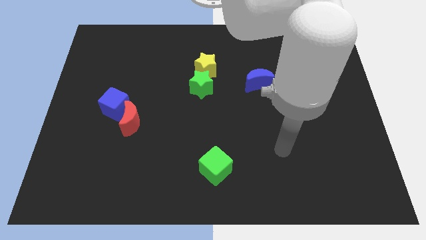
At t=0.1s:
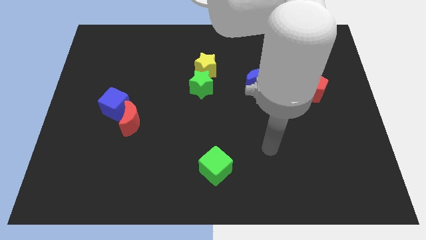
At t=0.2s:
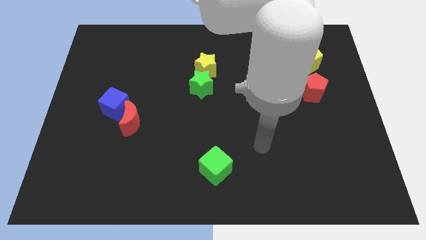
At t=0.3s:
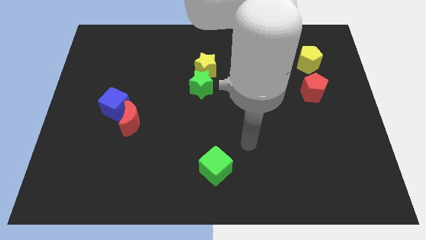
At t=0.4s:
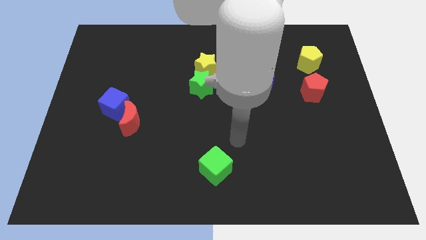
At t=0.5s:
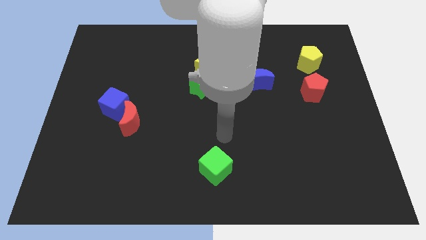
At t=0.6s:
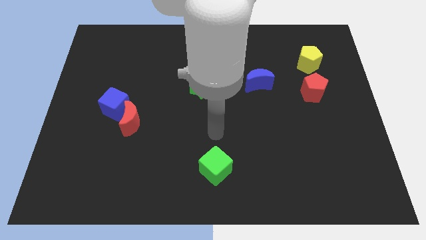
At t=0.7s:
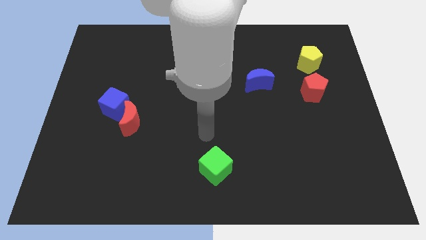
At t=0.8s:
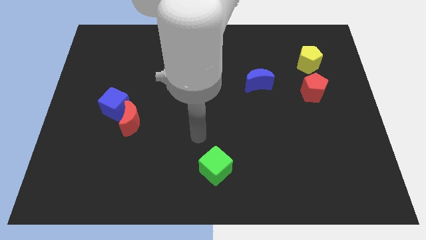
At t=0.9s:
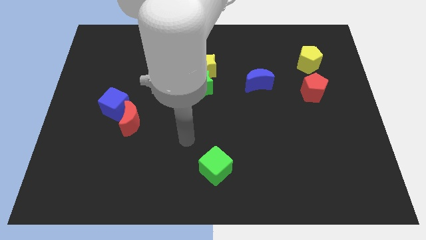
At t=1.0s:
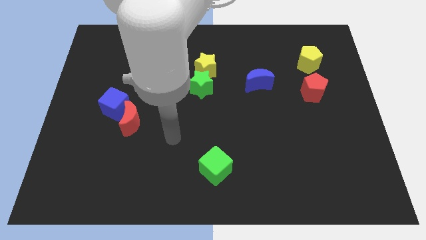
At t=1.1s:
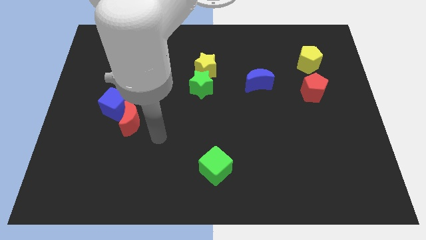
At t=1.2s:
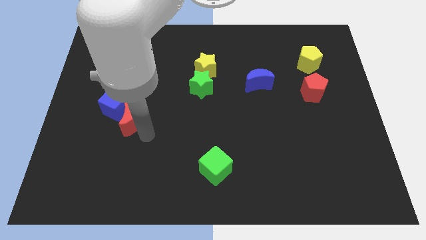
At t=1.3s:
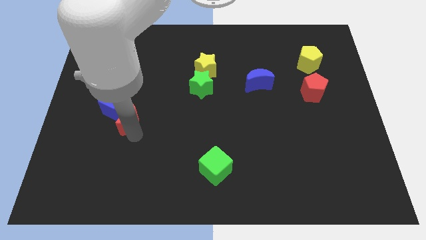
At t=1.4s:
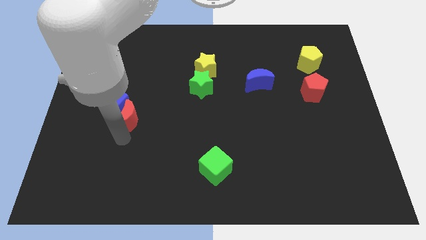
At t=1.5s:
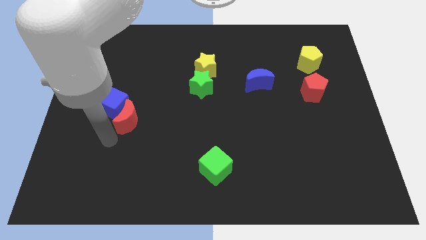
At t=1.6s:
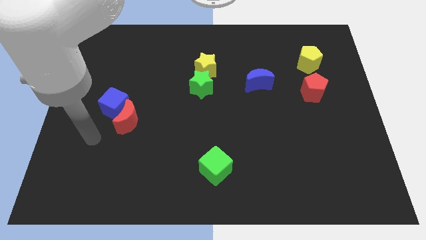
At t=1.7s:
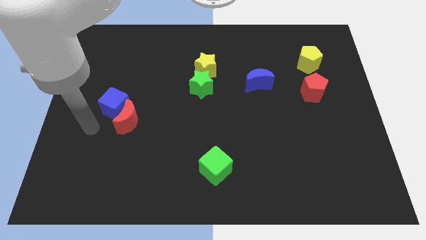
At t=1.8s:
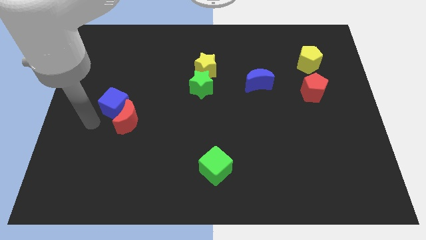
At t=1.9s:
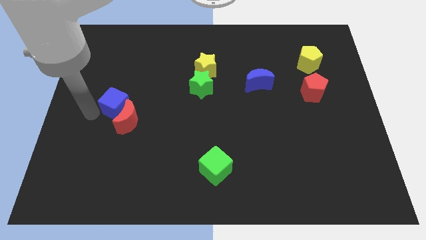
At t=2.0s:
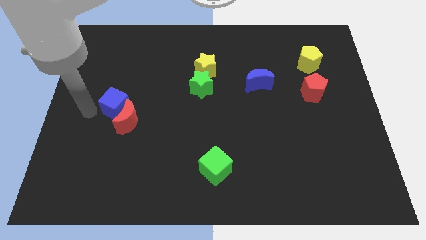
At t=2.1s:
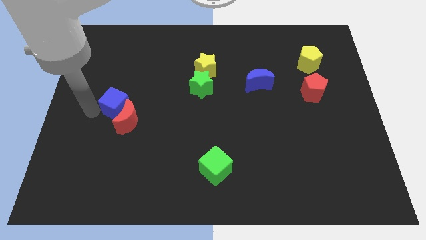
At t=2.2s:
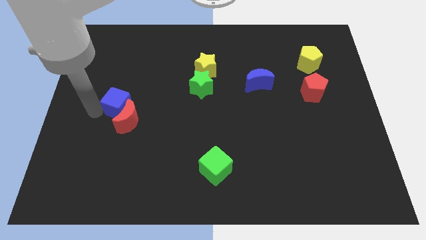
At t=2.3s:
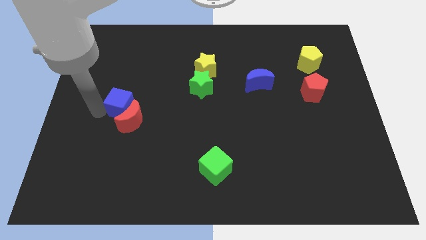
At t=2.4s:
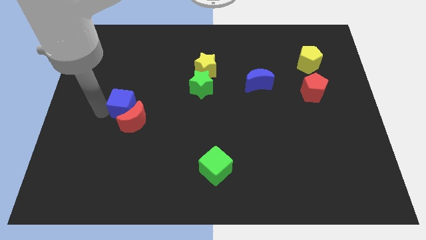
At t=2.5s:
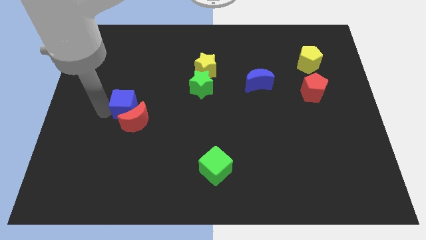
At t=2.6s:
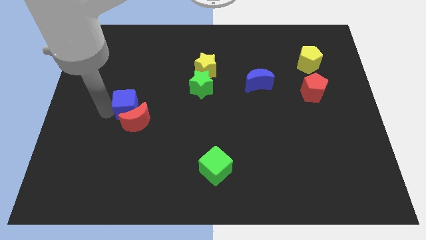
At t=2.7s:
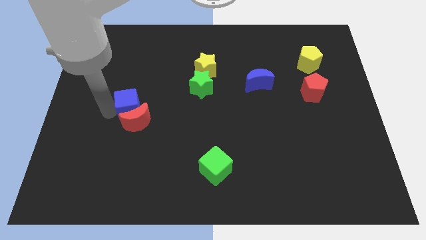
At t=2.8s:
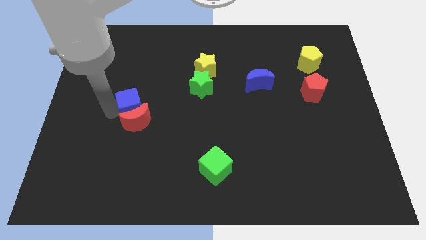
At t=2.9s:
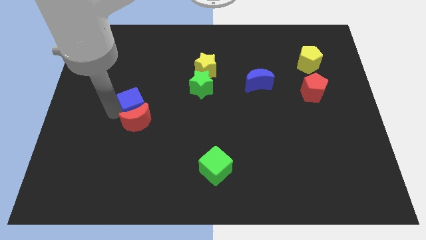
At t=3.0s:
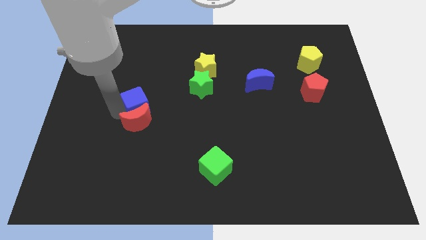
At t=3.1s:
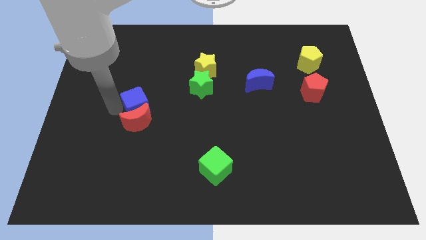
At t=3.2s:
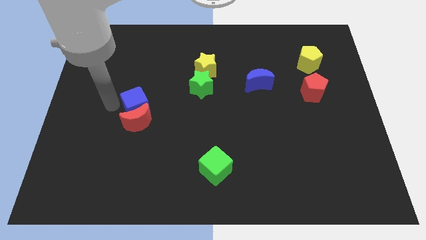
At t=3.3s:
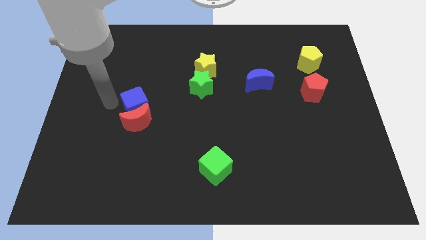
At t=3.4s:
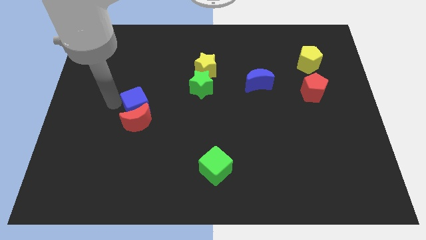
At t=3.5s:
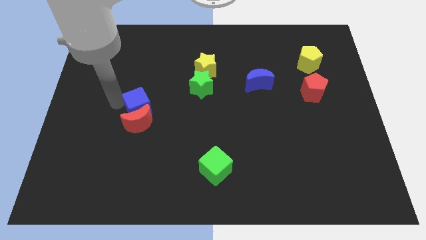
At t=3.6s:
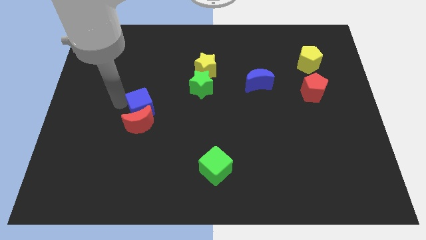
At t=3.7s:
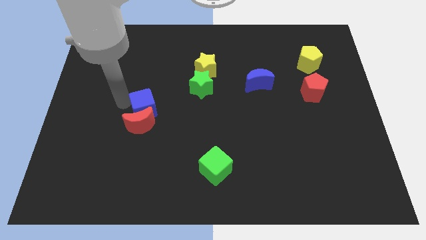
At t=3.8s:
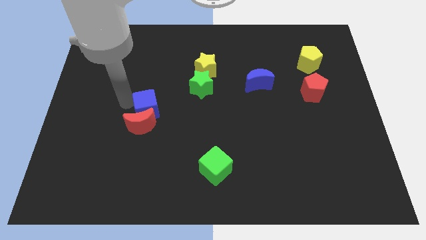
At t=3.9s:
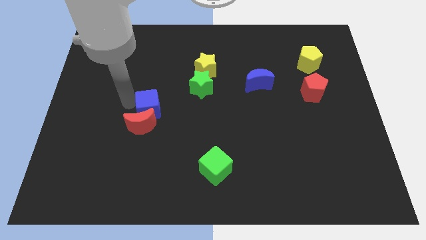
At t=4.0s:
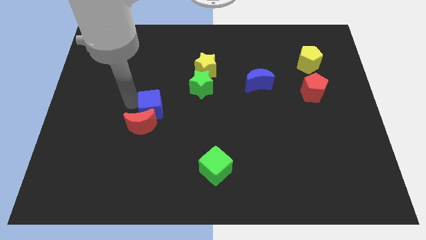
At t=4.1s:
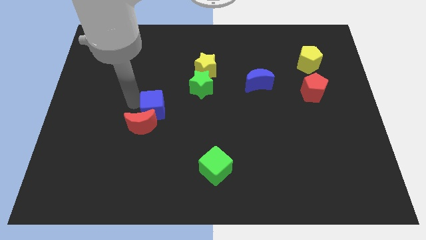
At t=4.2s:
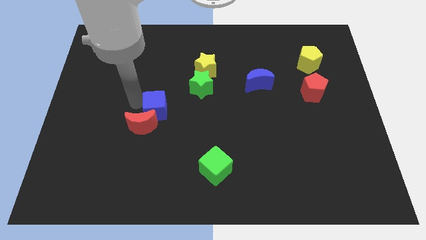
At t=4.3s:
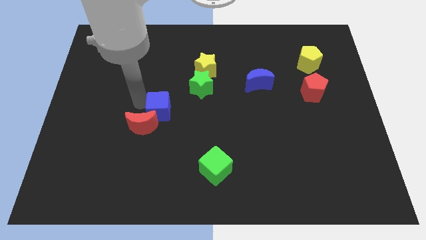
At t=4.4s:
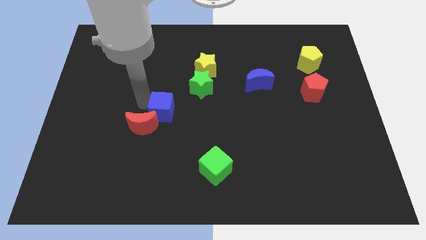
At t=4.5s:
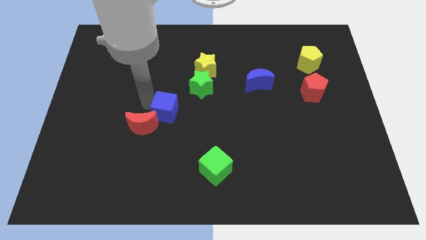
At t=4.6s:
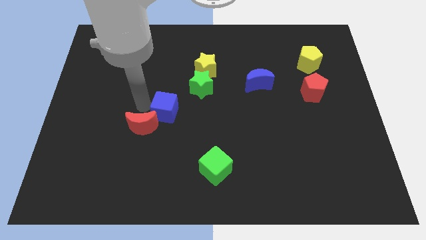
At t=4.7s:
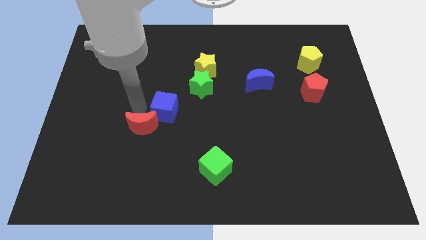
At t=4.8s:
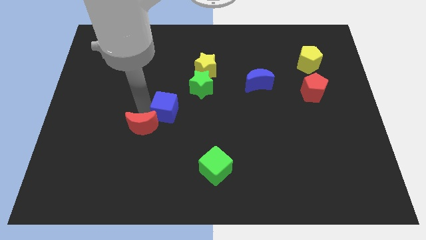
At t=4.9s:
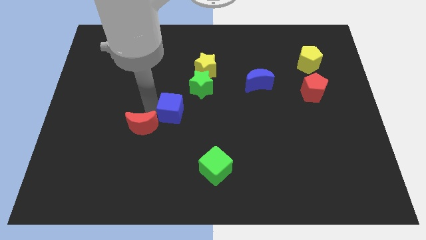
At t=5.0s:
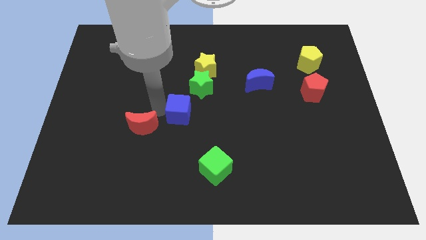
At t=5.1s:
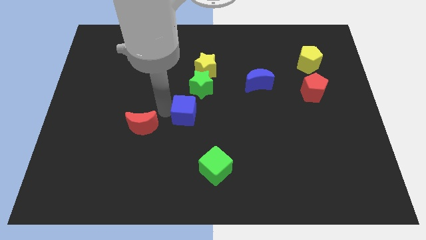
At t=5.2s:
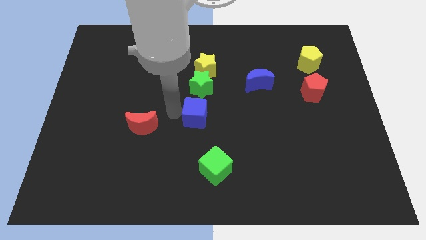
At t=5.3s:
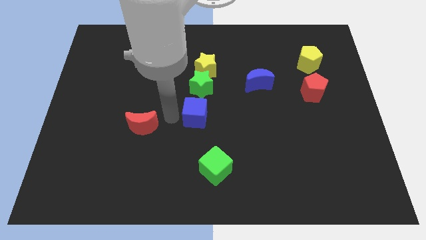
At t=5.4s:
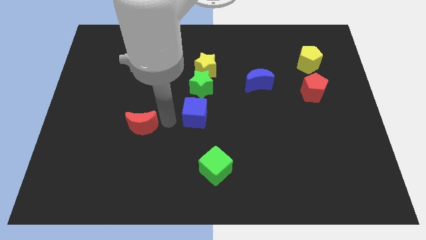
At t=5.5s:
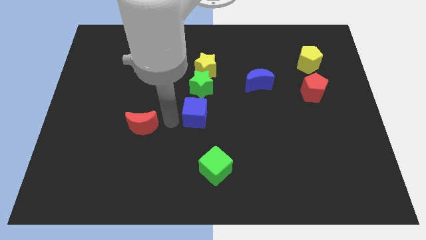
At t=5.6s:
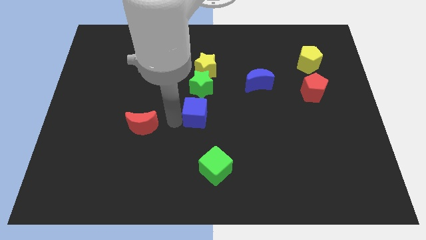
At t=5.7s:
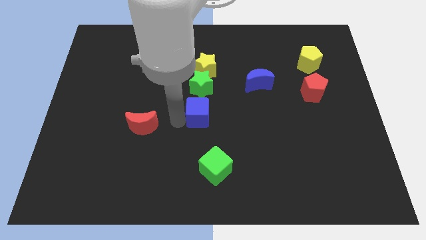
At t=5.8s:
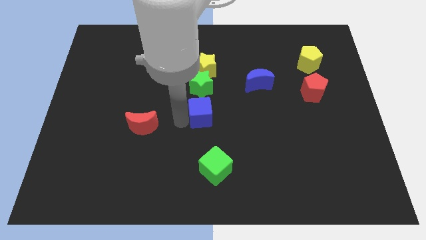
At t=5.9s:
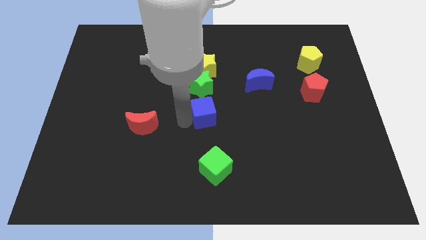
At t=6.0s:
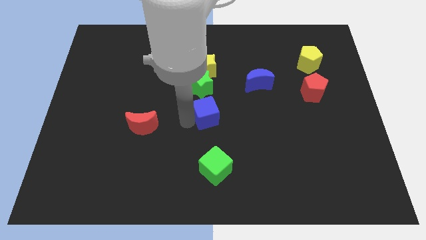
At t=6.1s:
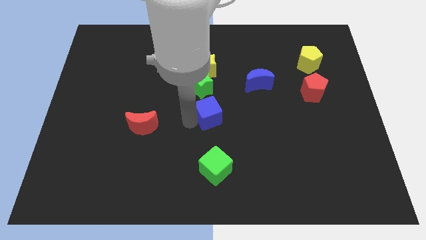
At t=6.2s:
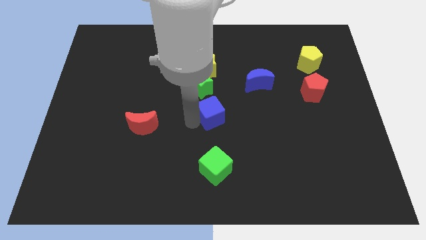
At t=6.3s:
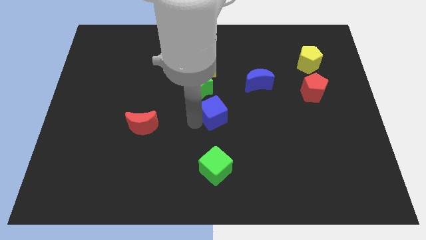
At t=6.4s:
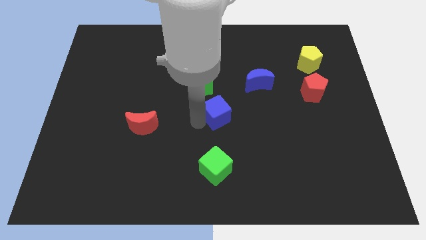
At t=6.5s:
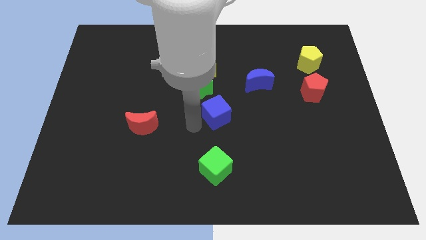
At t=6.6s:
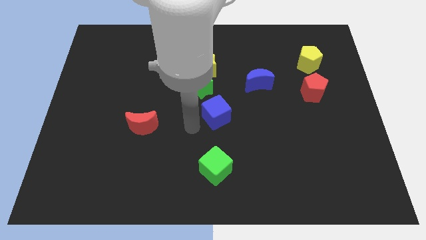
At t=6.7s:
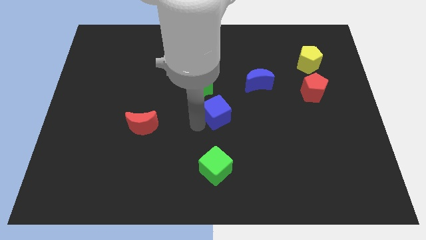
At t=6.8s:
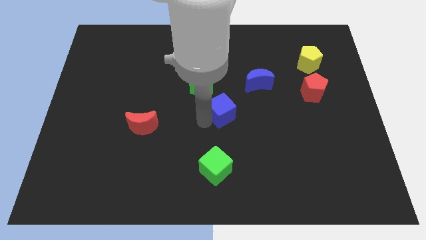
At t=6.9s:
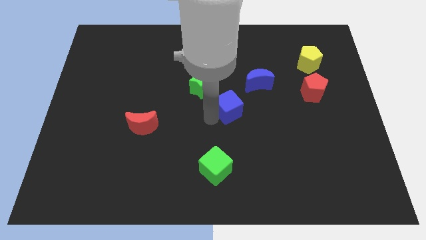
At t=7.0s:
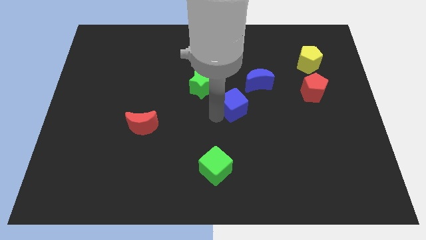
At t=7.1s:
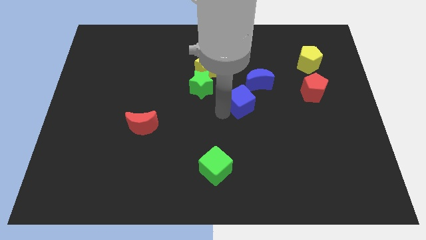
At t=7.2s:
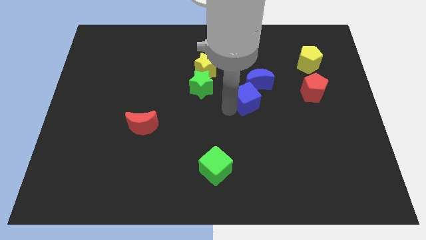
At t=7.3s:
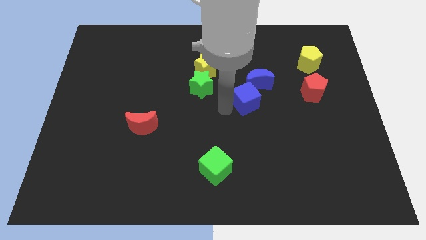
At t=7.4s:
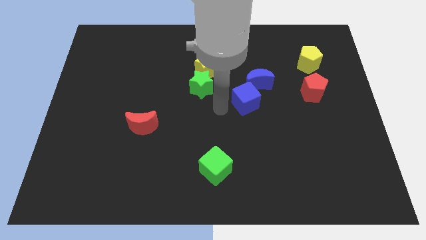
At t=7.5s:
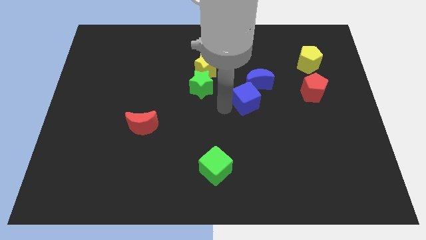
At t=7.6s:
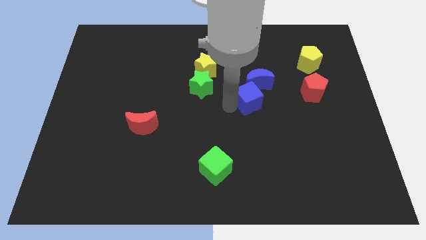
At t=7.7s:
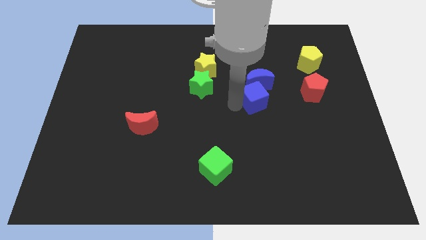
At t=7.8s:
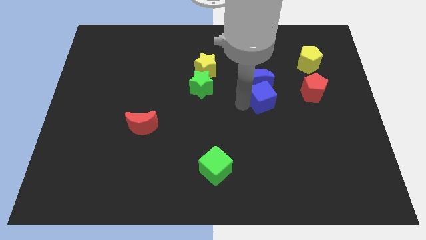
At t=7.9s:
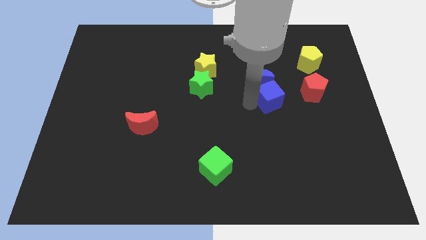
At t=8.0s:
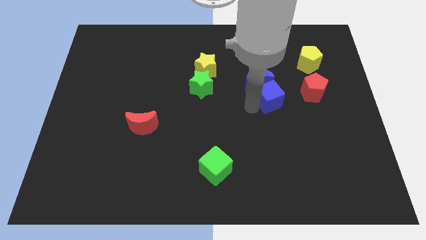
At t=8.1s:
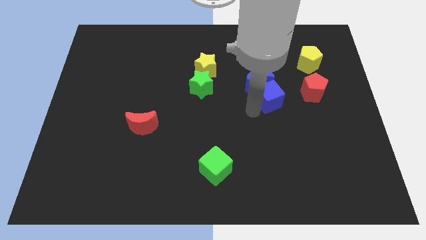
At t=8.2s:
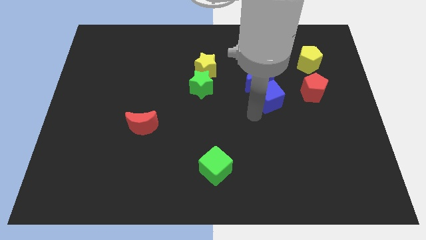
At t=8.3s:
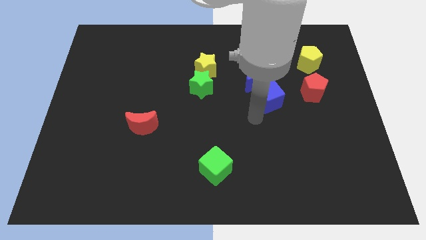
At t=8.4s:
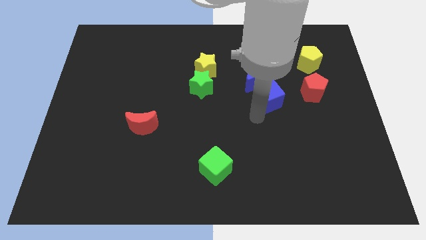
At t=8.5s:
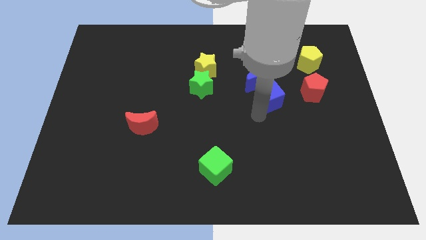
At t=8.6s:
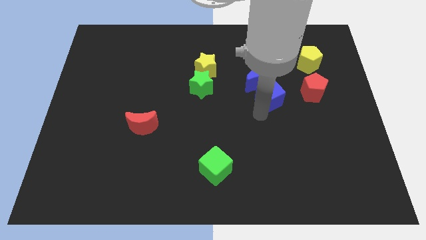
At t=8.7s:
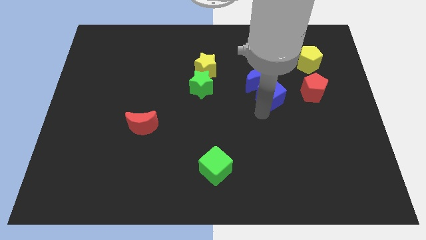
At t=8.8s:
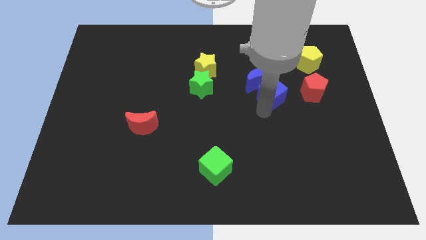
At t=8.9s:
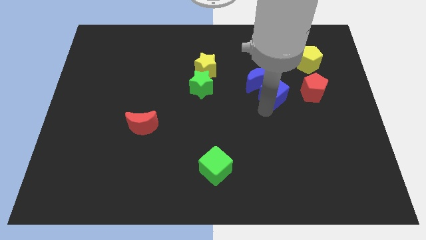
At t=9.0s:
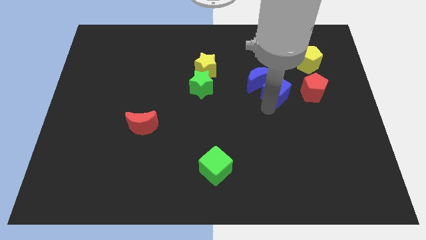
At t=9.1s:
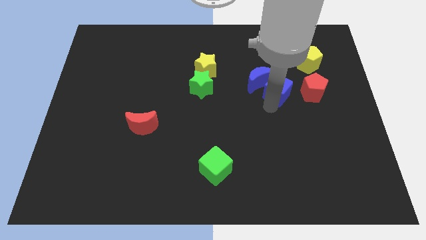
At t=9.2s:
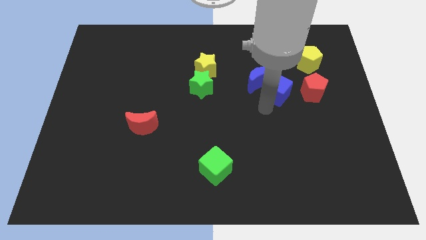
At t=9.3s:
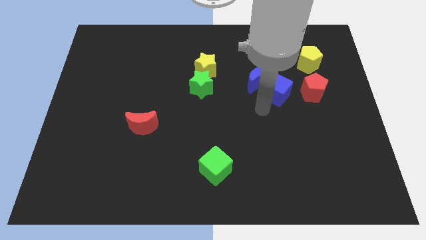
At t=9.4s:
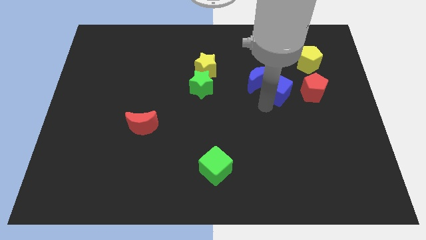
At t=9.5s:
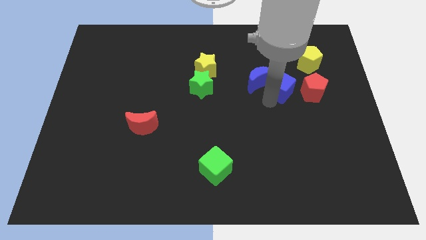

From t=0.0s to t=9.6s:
push the blue cube to the bottom left of the yellow pentagon
